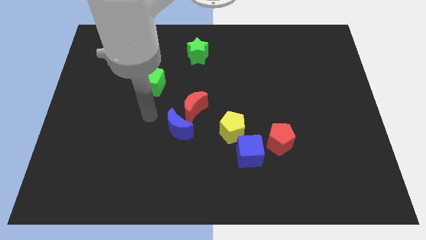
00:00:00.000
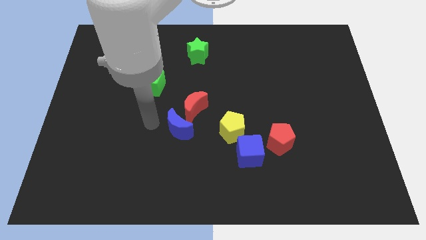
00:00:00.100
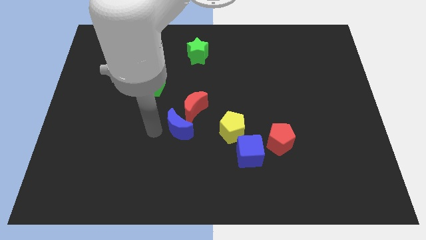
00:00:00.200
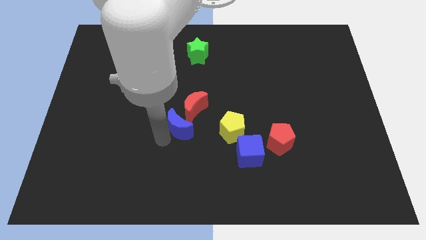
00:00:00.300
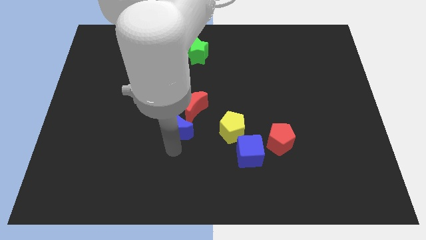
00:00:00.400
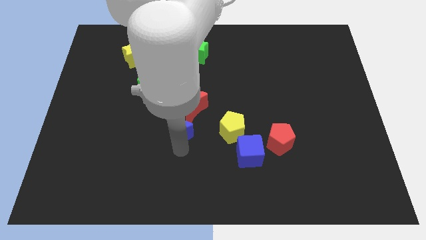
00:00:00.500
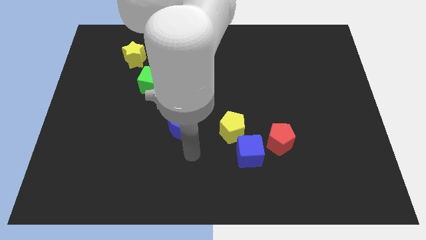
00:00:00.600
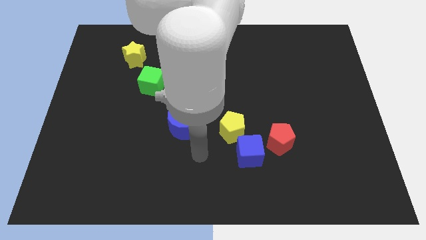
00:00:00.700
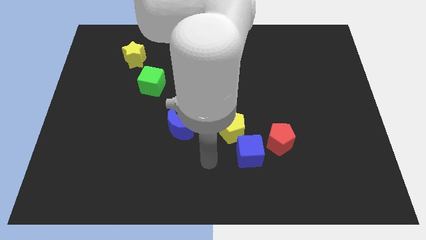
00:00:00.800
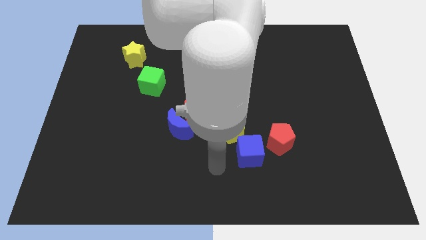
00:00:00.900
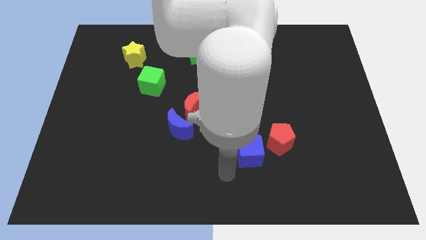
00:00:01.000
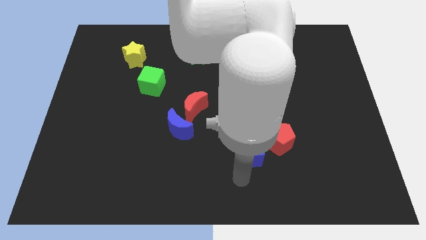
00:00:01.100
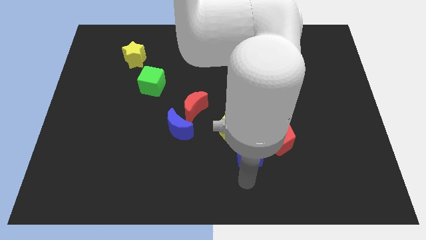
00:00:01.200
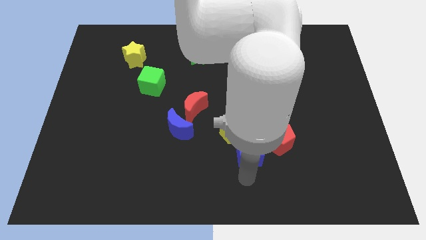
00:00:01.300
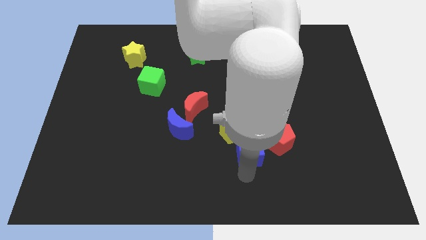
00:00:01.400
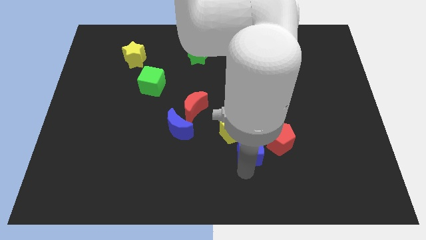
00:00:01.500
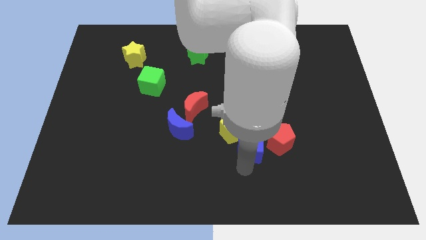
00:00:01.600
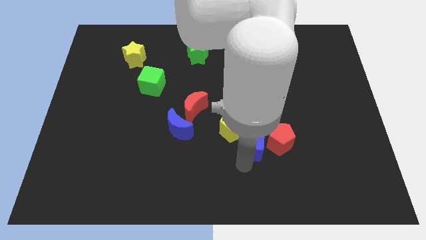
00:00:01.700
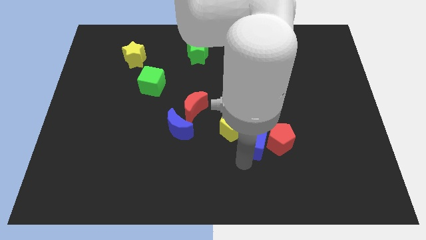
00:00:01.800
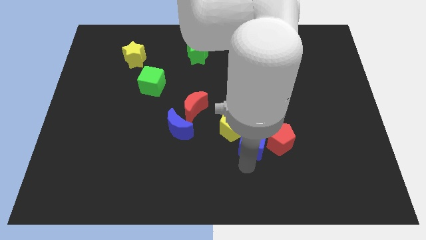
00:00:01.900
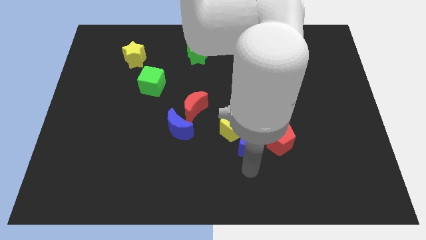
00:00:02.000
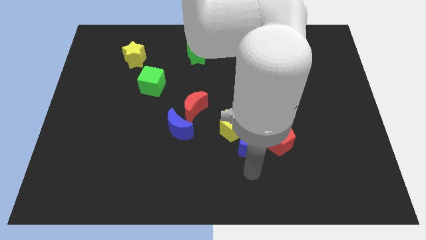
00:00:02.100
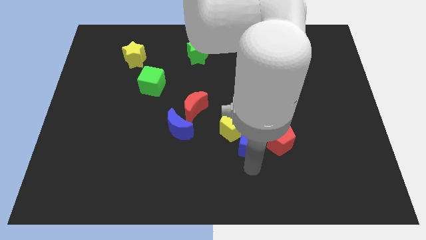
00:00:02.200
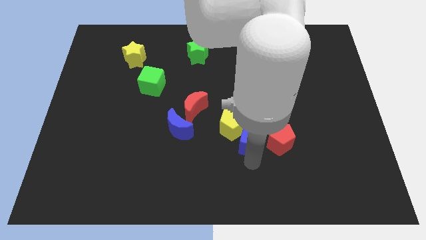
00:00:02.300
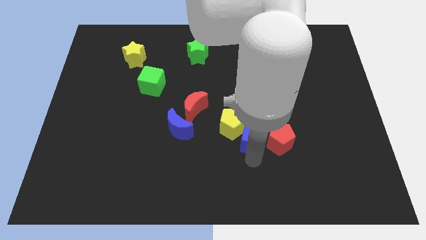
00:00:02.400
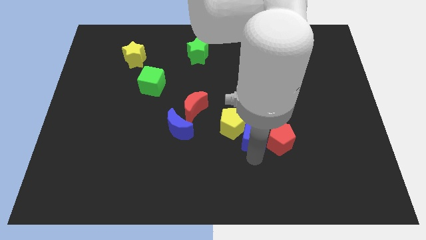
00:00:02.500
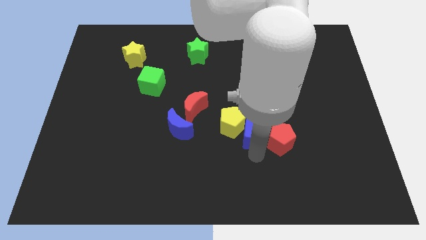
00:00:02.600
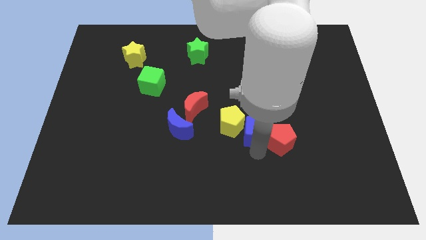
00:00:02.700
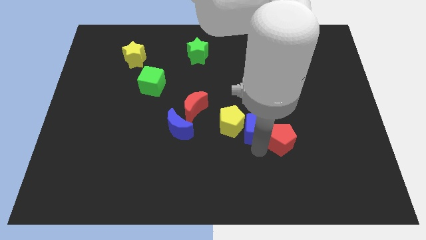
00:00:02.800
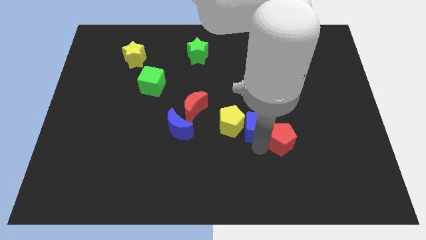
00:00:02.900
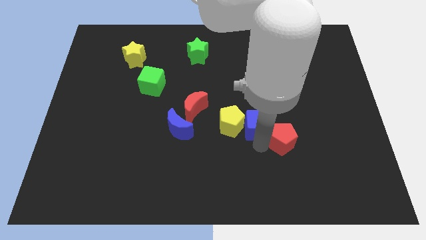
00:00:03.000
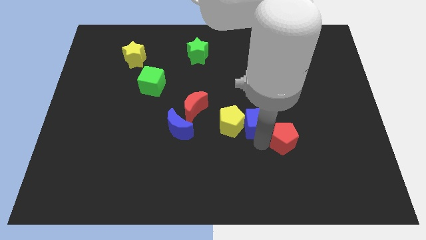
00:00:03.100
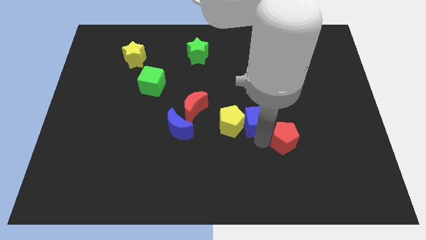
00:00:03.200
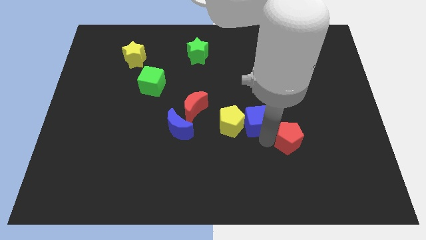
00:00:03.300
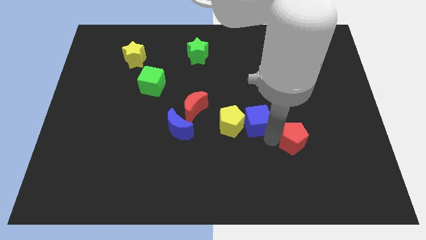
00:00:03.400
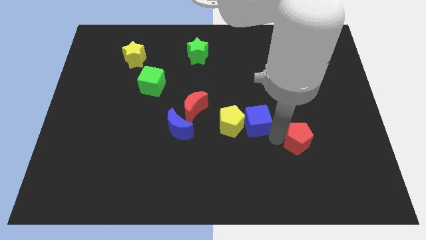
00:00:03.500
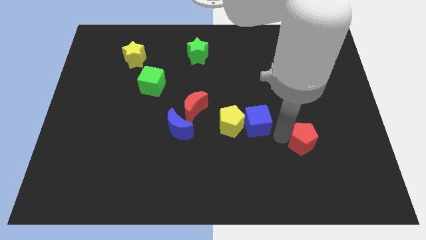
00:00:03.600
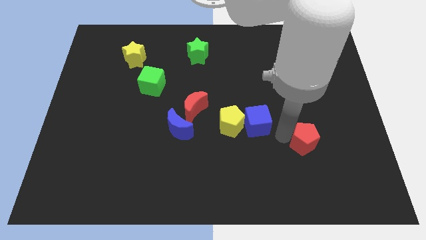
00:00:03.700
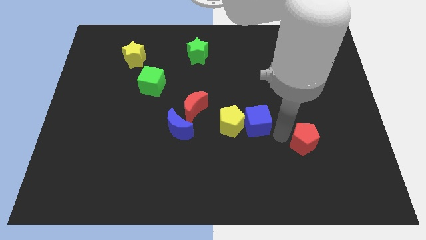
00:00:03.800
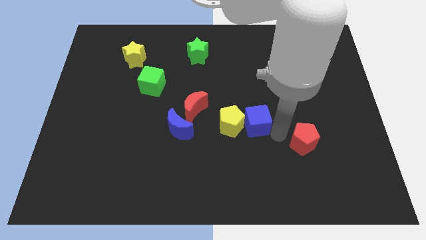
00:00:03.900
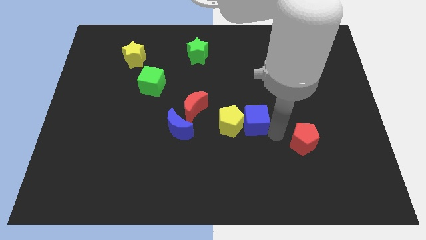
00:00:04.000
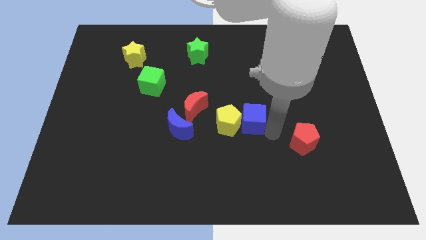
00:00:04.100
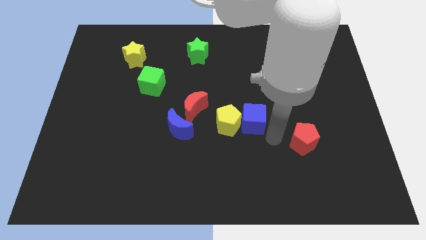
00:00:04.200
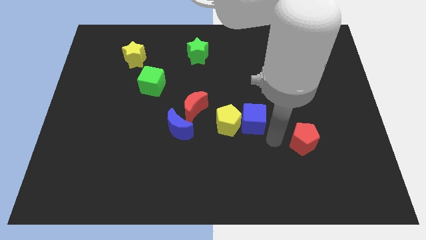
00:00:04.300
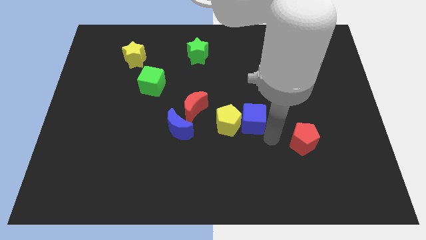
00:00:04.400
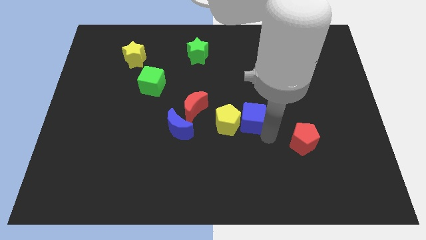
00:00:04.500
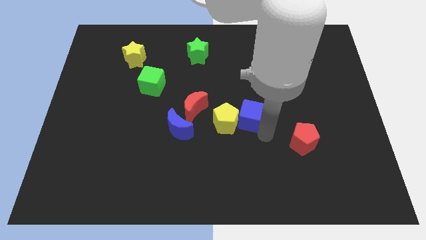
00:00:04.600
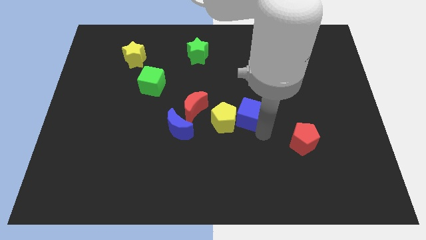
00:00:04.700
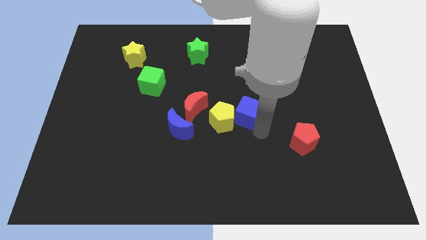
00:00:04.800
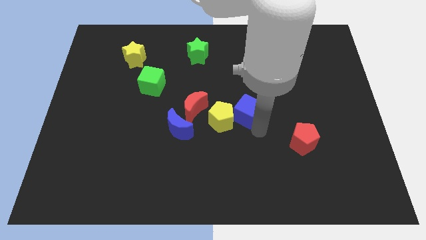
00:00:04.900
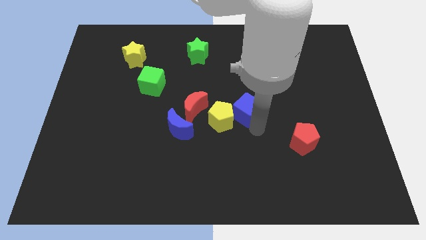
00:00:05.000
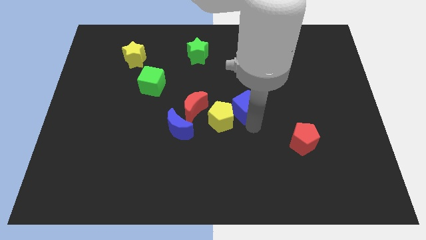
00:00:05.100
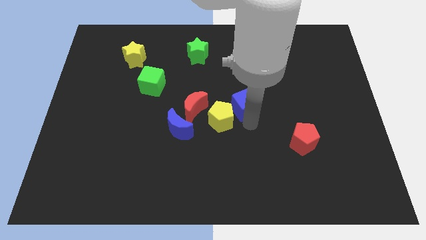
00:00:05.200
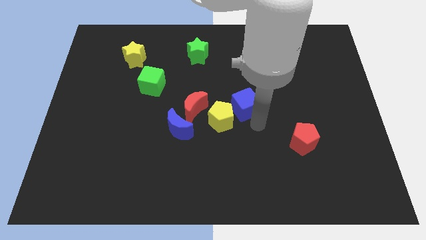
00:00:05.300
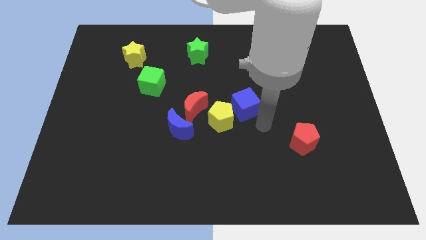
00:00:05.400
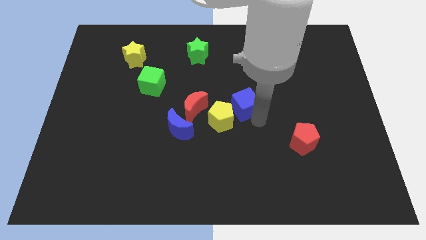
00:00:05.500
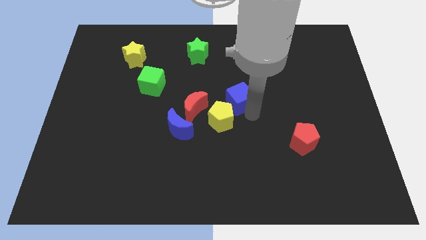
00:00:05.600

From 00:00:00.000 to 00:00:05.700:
push the blue cube to the top side of the yellow pentagon

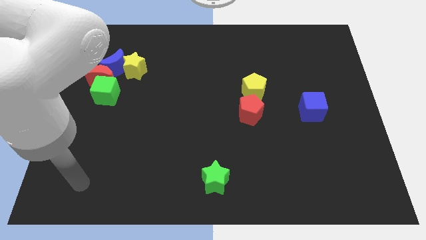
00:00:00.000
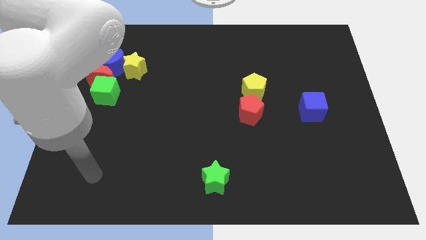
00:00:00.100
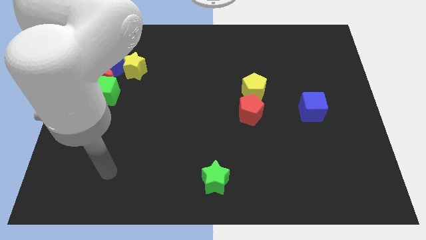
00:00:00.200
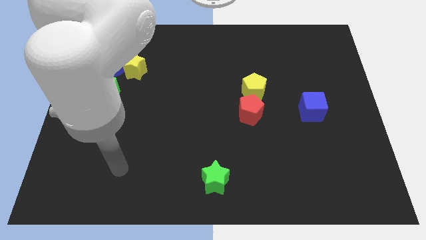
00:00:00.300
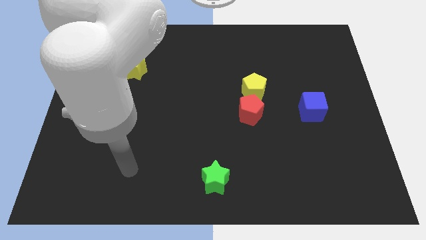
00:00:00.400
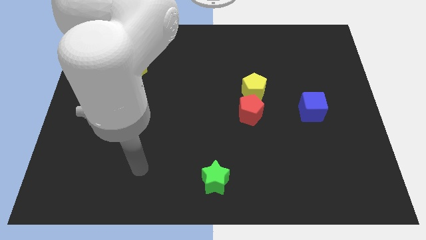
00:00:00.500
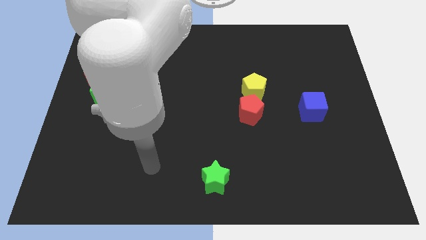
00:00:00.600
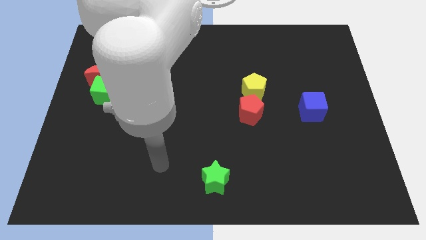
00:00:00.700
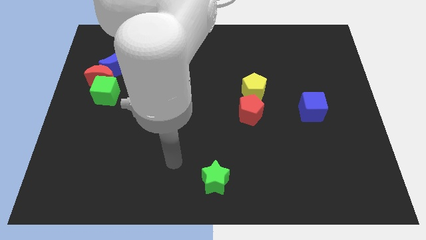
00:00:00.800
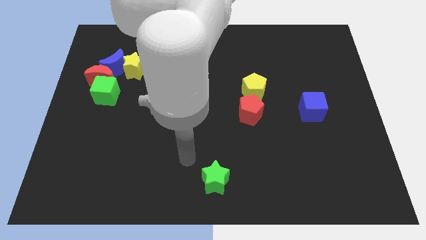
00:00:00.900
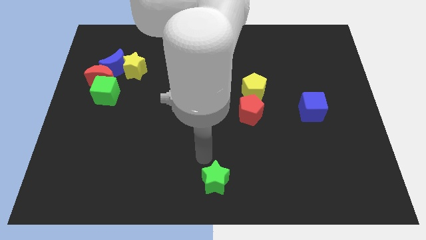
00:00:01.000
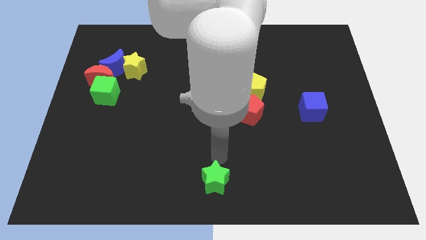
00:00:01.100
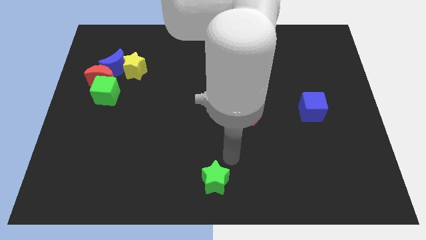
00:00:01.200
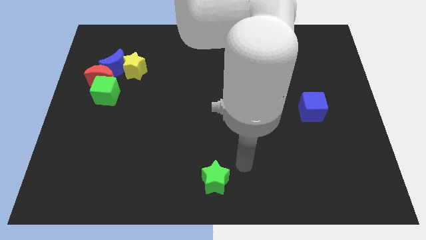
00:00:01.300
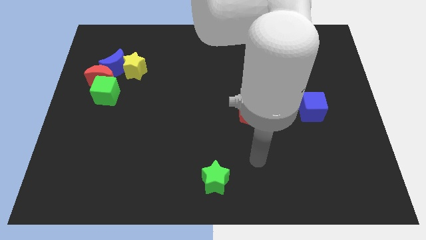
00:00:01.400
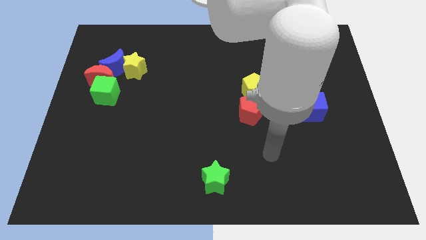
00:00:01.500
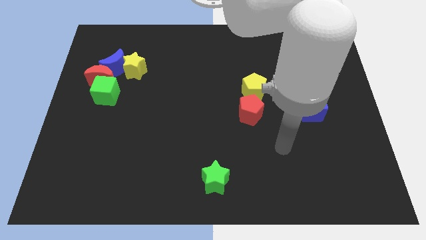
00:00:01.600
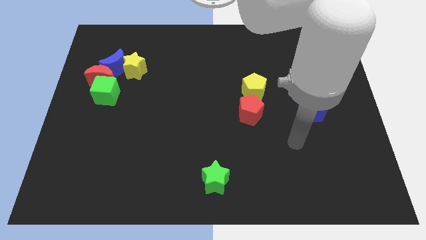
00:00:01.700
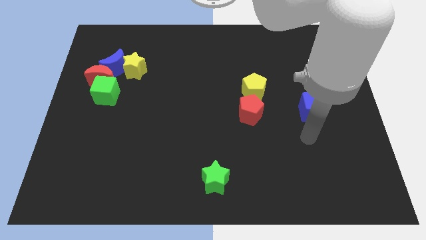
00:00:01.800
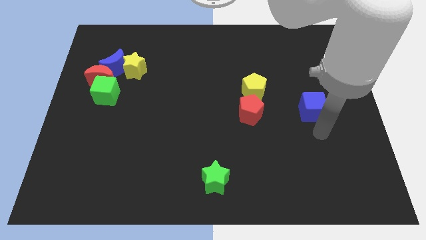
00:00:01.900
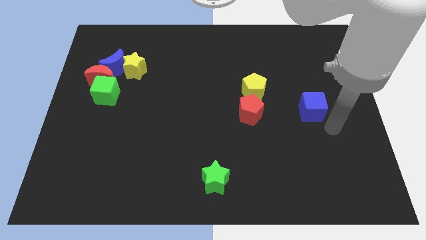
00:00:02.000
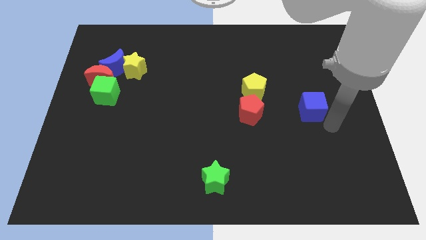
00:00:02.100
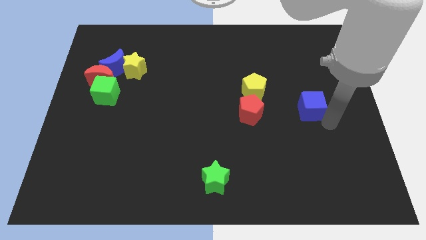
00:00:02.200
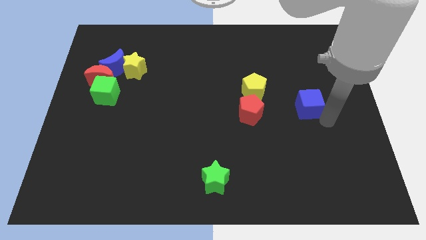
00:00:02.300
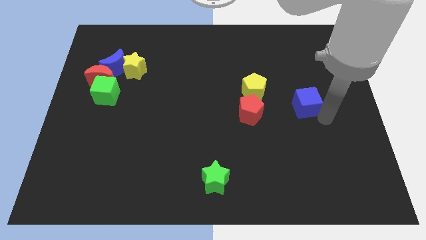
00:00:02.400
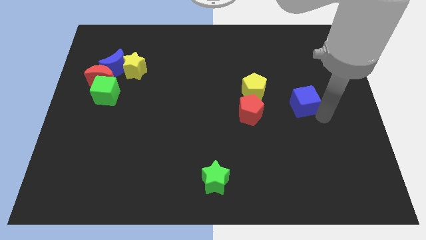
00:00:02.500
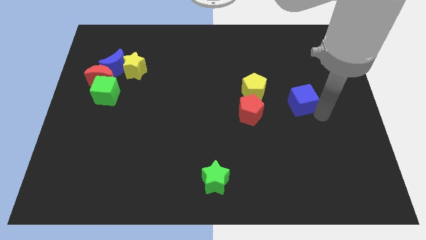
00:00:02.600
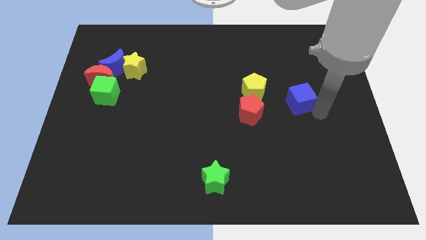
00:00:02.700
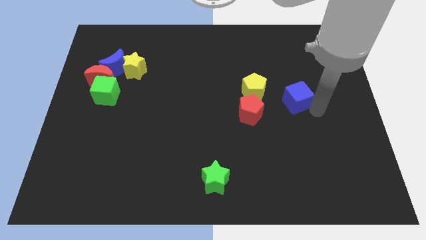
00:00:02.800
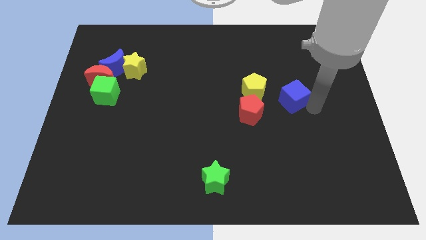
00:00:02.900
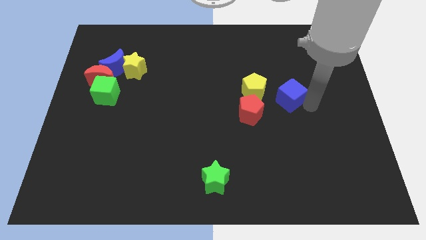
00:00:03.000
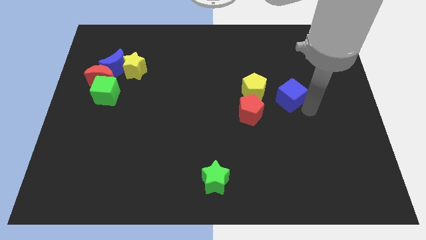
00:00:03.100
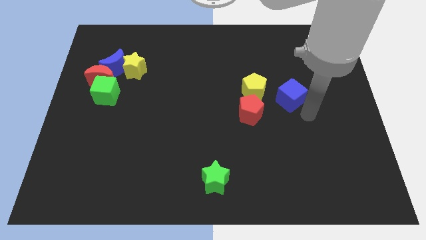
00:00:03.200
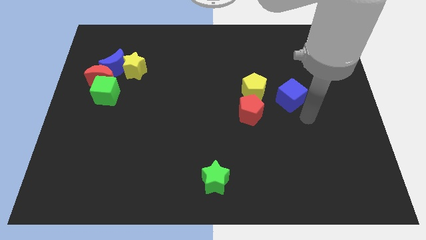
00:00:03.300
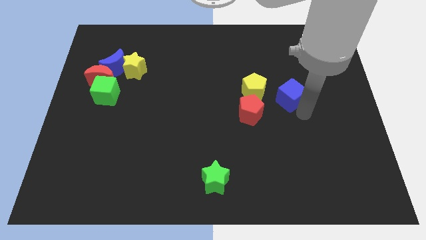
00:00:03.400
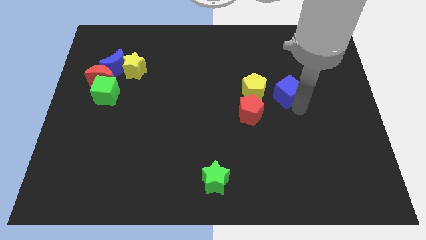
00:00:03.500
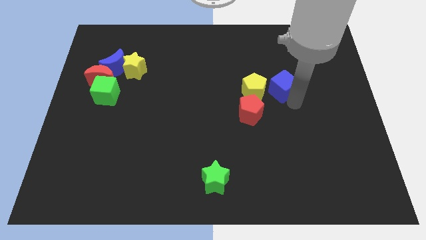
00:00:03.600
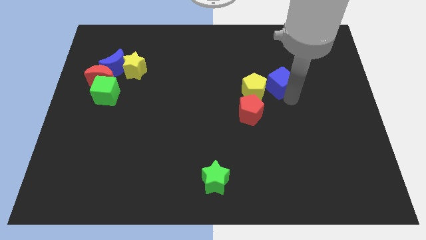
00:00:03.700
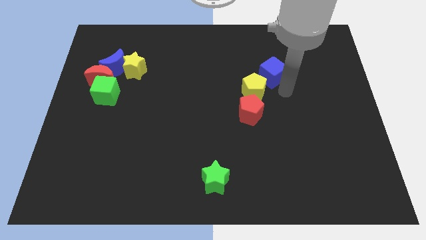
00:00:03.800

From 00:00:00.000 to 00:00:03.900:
put the blue cube to the top of the yellow pentagon
